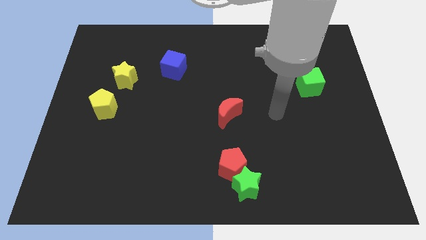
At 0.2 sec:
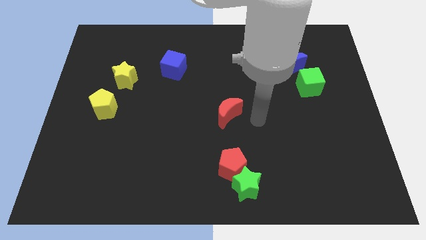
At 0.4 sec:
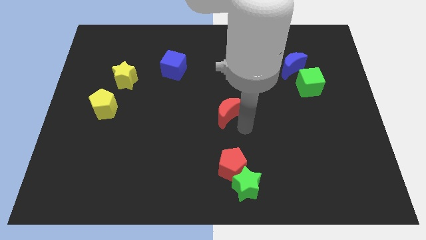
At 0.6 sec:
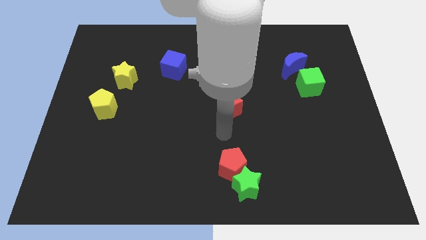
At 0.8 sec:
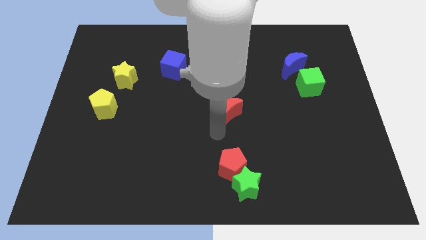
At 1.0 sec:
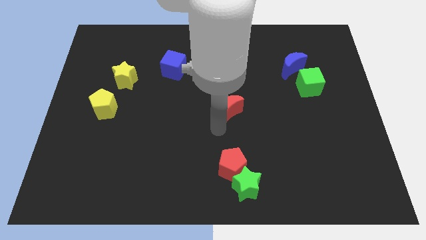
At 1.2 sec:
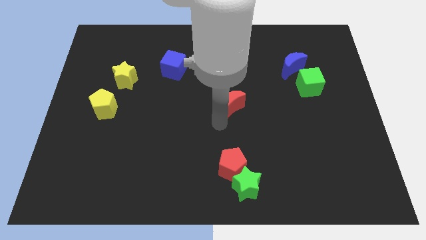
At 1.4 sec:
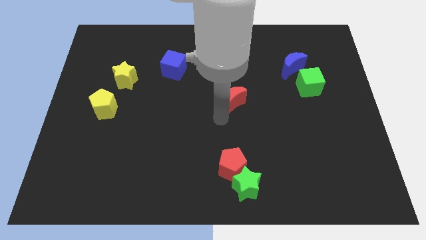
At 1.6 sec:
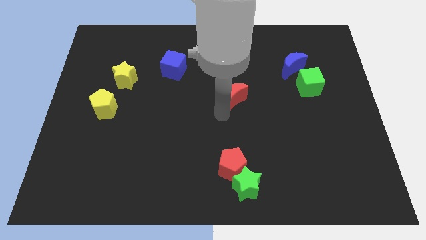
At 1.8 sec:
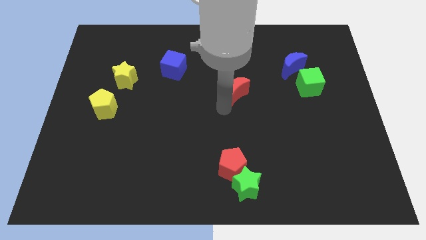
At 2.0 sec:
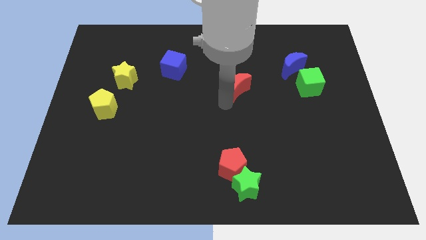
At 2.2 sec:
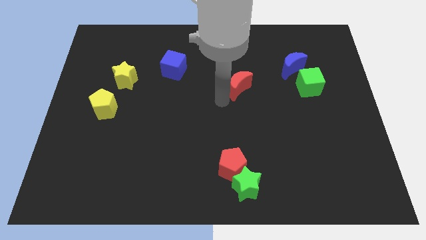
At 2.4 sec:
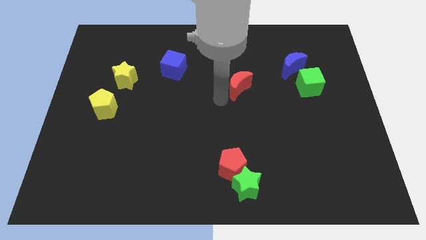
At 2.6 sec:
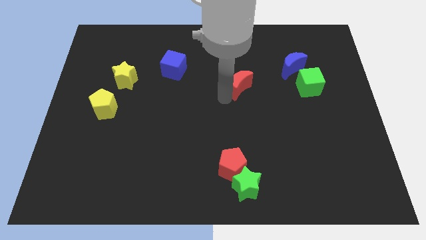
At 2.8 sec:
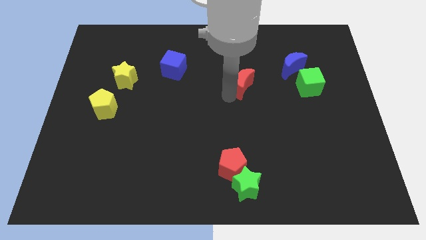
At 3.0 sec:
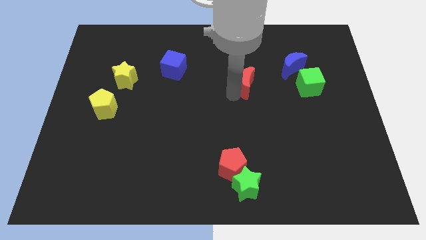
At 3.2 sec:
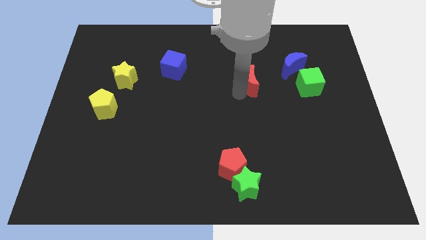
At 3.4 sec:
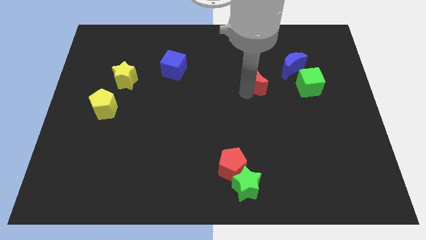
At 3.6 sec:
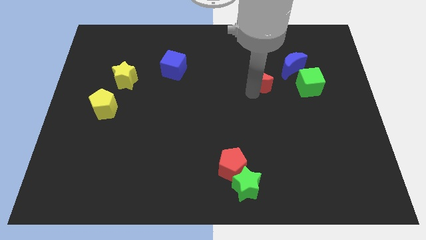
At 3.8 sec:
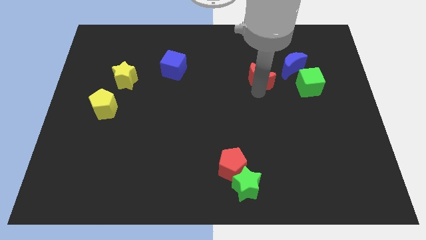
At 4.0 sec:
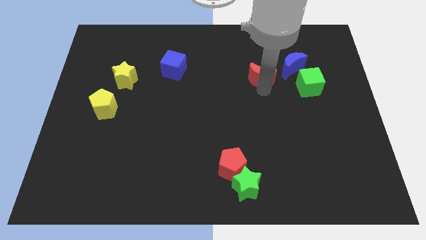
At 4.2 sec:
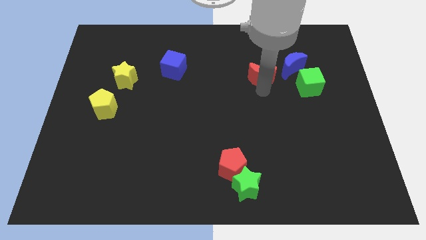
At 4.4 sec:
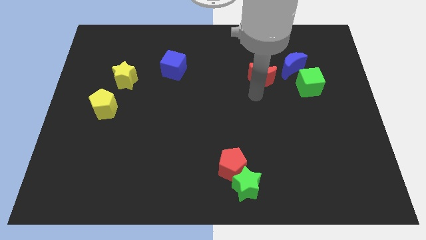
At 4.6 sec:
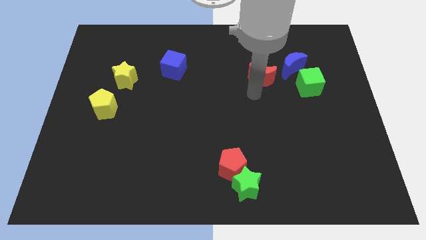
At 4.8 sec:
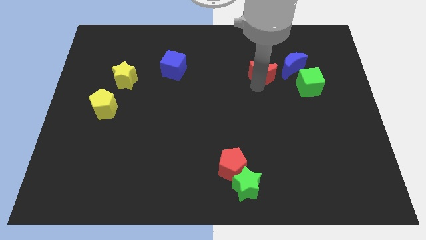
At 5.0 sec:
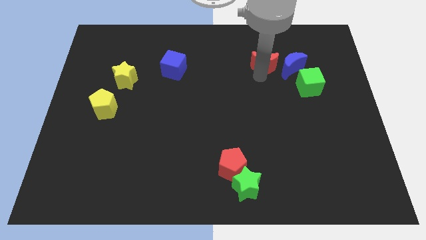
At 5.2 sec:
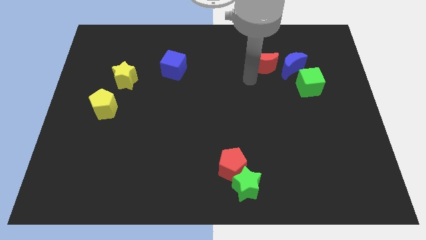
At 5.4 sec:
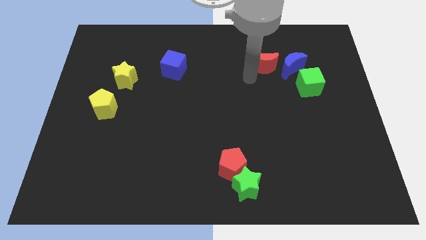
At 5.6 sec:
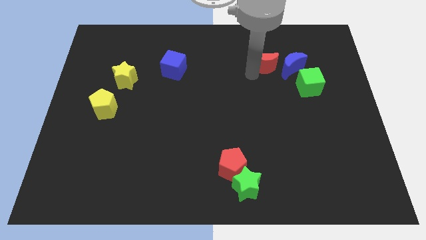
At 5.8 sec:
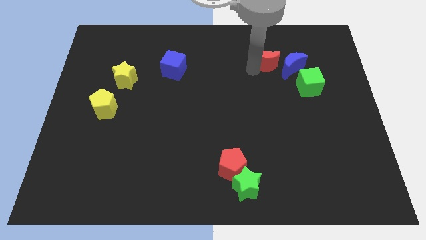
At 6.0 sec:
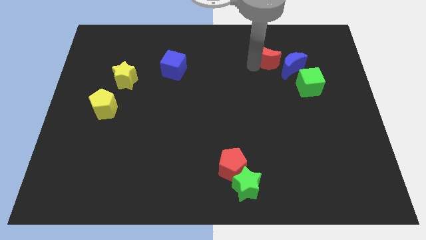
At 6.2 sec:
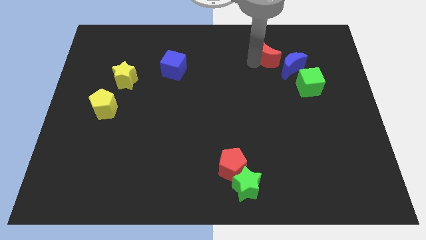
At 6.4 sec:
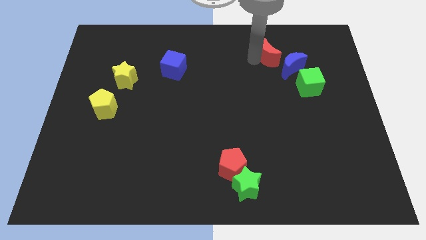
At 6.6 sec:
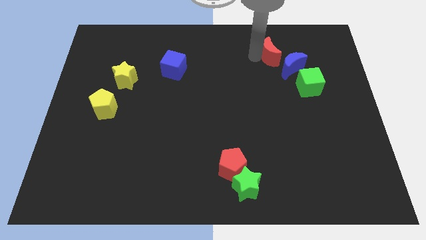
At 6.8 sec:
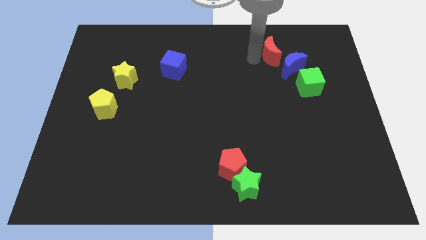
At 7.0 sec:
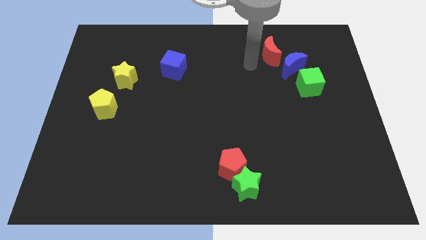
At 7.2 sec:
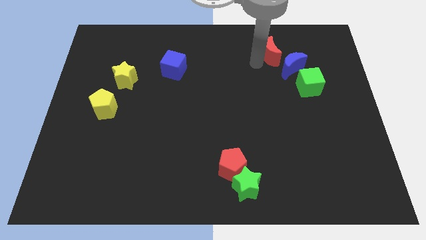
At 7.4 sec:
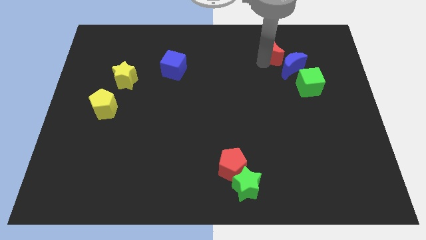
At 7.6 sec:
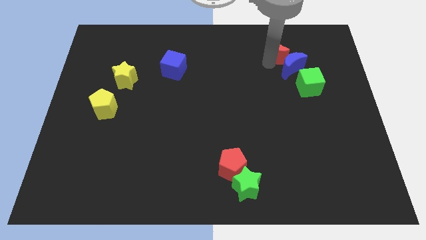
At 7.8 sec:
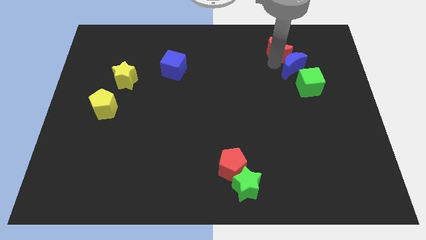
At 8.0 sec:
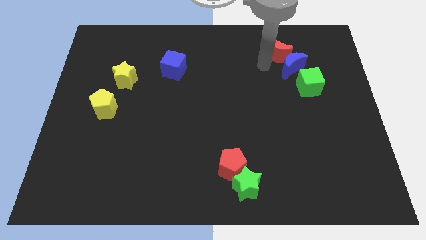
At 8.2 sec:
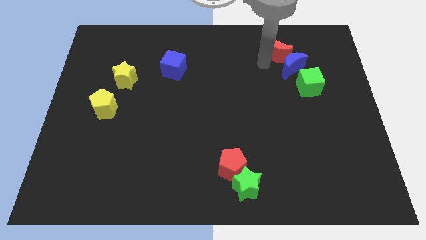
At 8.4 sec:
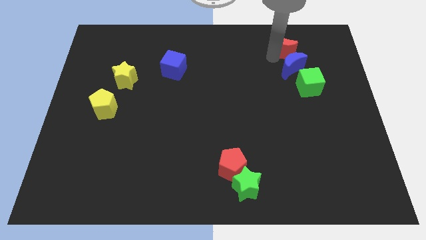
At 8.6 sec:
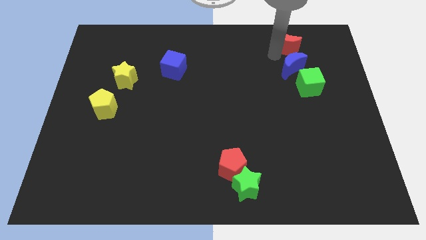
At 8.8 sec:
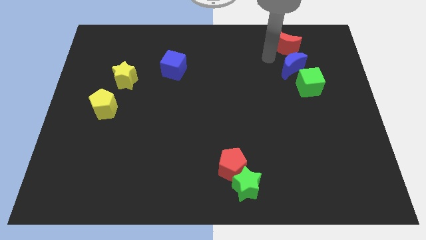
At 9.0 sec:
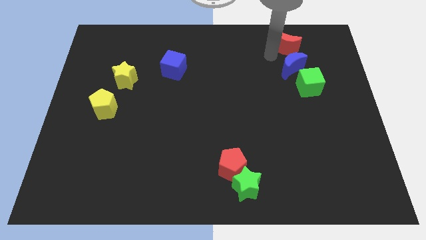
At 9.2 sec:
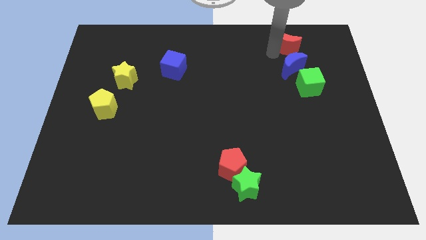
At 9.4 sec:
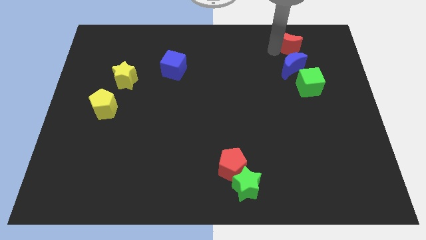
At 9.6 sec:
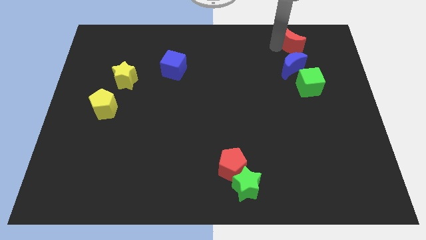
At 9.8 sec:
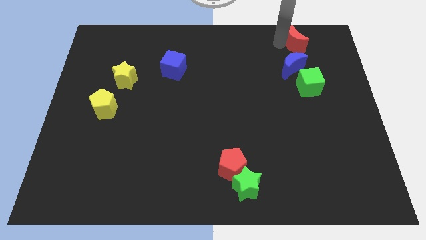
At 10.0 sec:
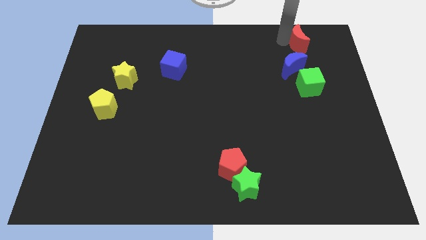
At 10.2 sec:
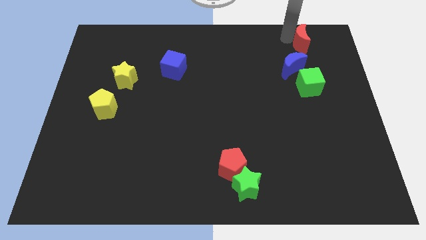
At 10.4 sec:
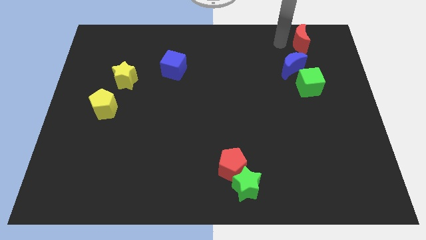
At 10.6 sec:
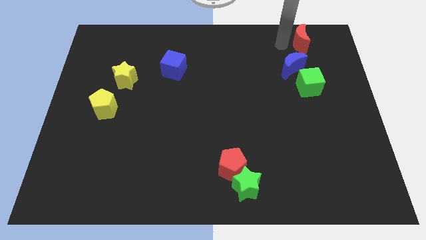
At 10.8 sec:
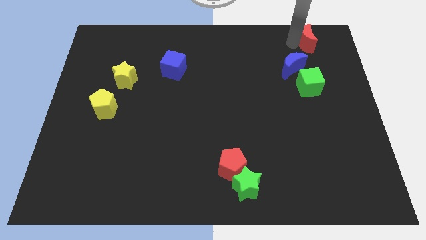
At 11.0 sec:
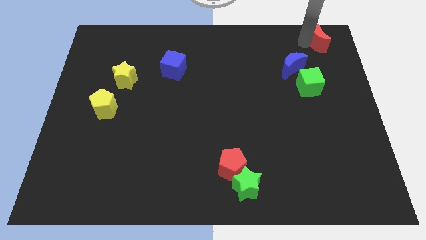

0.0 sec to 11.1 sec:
put the red moon to the top right
